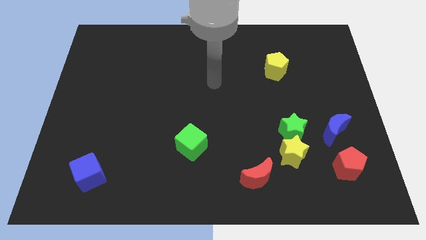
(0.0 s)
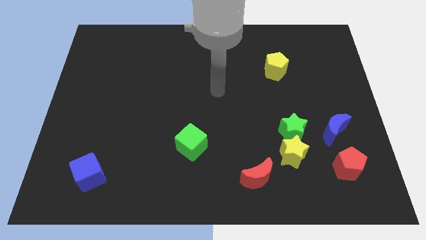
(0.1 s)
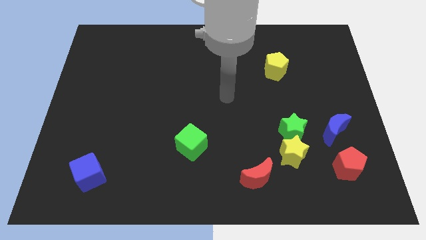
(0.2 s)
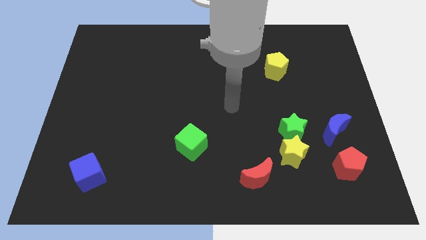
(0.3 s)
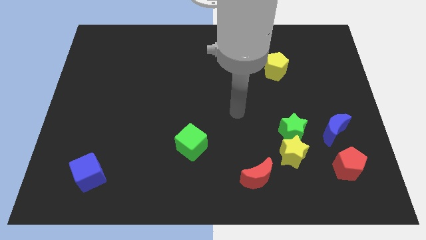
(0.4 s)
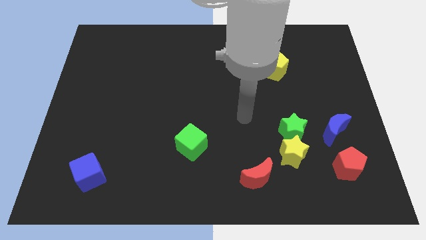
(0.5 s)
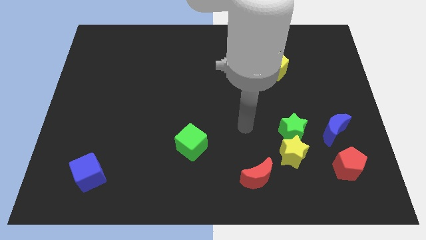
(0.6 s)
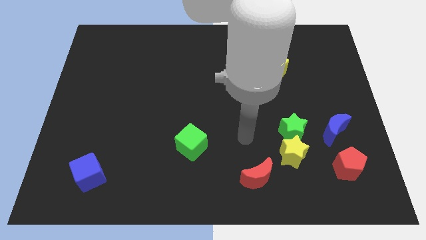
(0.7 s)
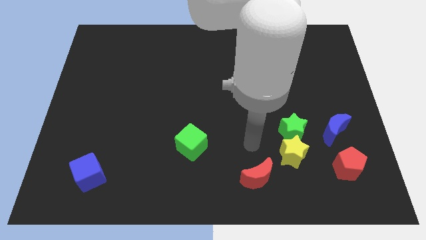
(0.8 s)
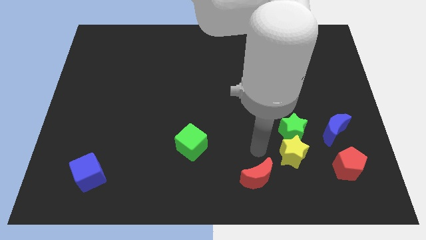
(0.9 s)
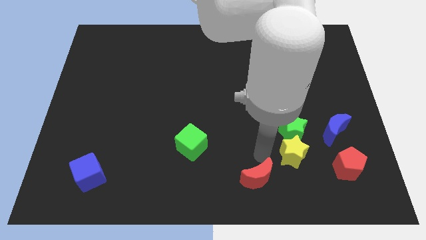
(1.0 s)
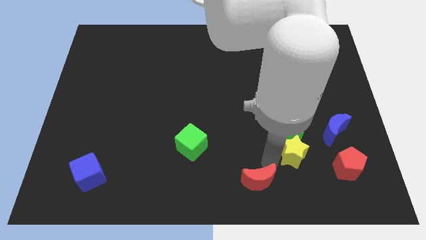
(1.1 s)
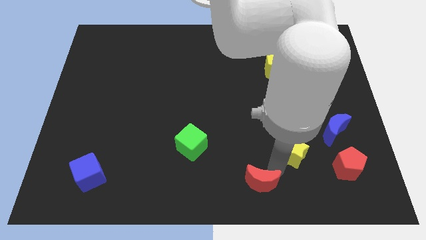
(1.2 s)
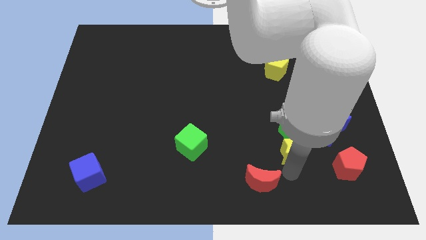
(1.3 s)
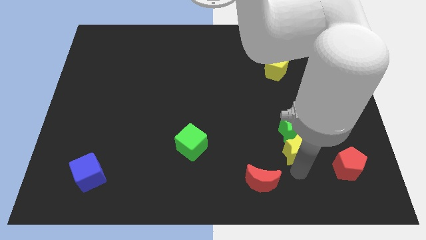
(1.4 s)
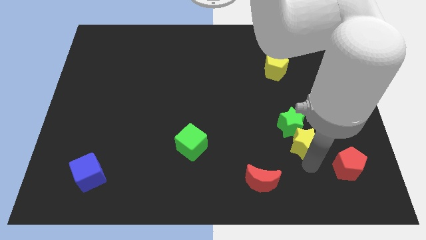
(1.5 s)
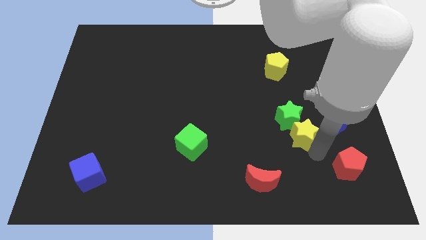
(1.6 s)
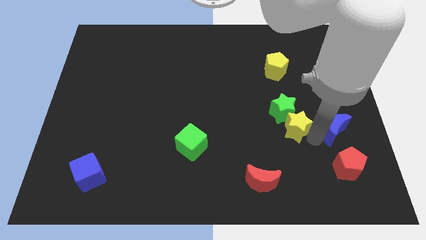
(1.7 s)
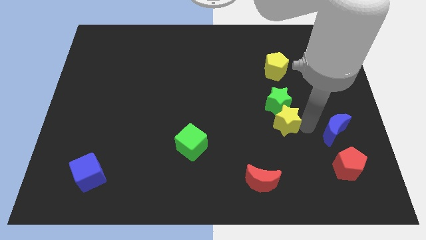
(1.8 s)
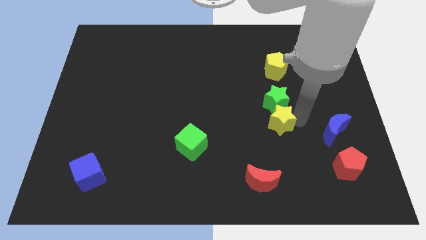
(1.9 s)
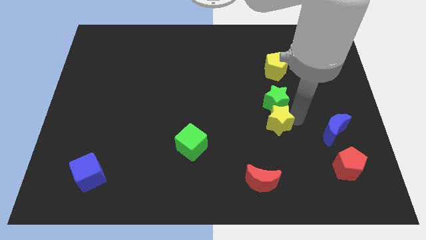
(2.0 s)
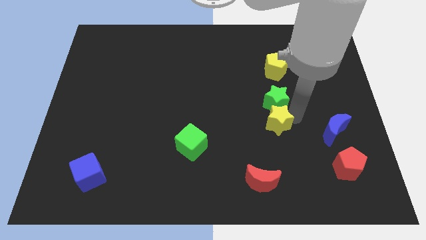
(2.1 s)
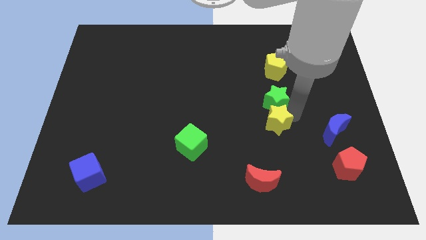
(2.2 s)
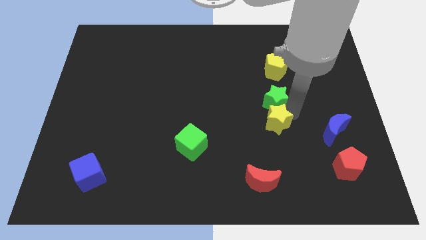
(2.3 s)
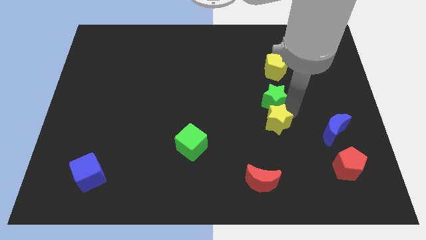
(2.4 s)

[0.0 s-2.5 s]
pull the green star apart from the yellow star and blue moon

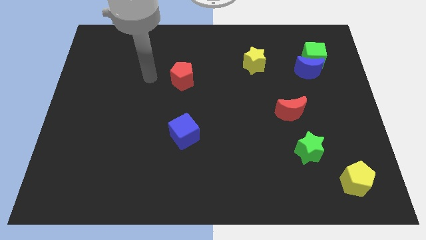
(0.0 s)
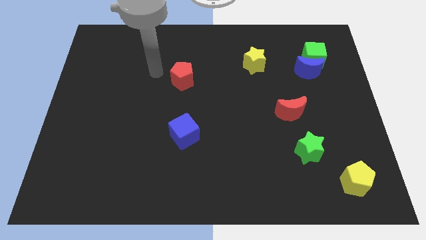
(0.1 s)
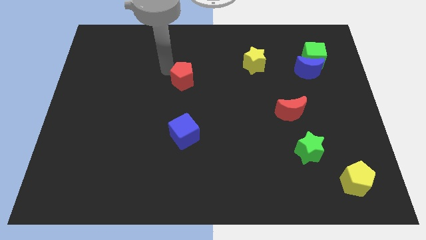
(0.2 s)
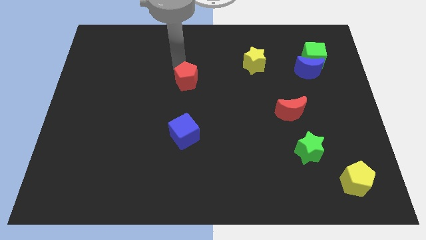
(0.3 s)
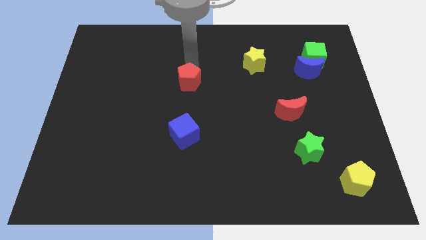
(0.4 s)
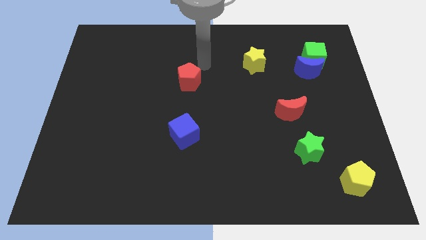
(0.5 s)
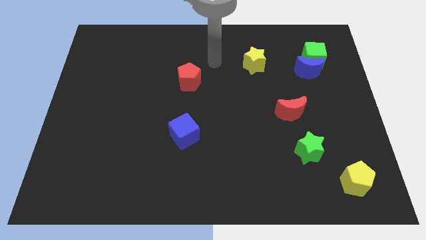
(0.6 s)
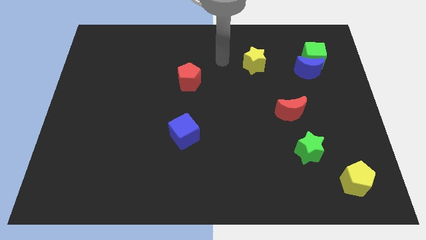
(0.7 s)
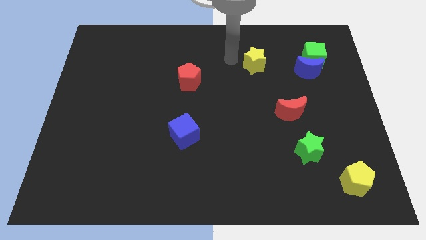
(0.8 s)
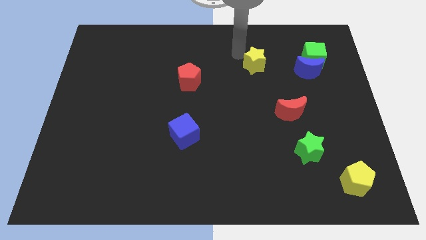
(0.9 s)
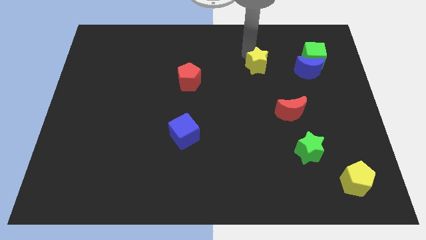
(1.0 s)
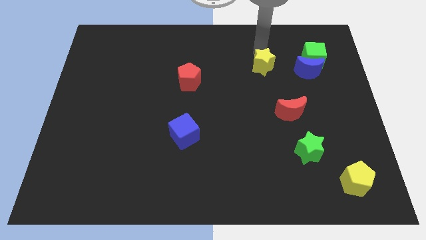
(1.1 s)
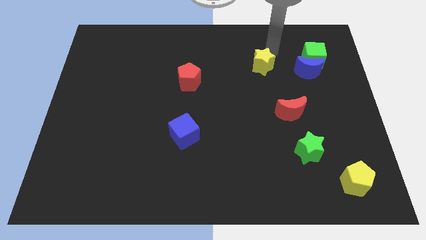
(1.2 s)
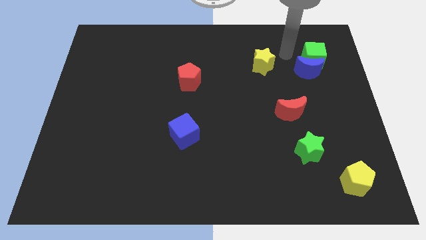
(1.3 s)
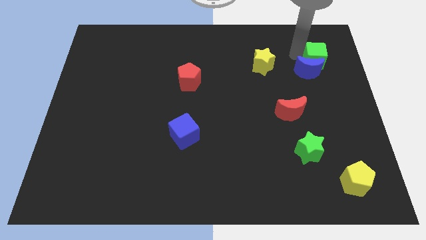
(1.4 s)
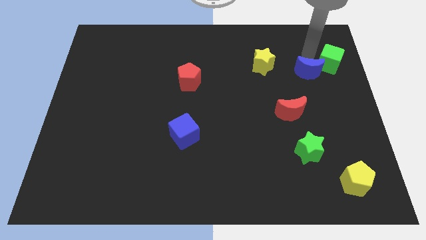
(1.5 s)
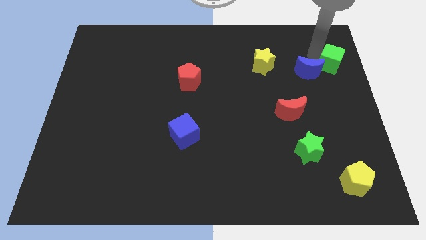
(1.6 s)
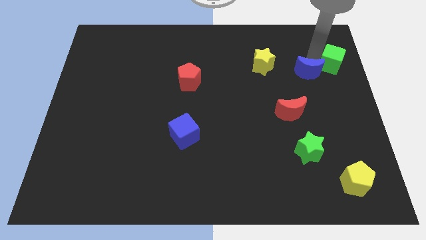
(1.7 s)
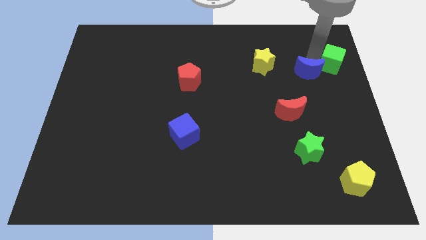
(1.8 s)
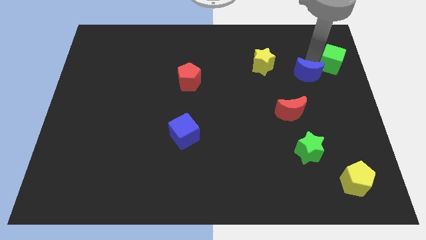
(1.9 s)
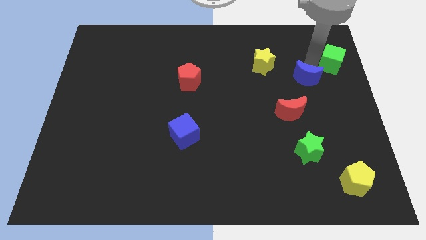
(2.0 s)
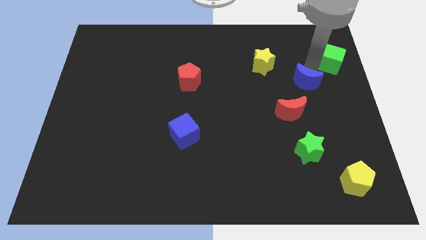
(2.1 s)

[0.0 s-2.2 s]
separate the blue moon from the green cube

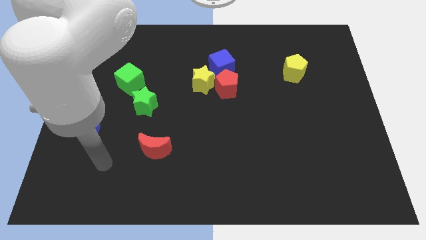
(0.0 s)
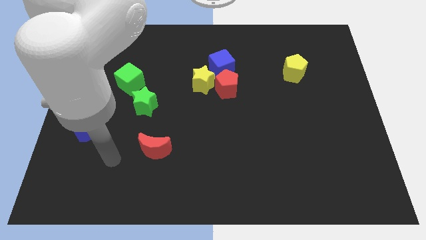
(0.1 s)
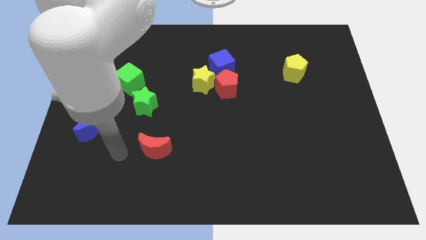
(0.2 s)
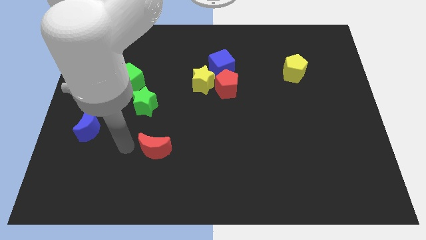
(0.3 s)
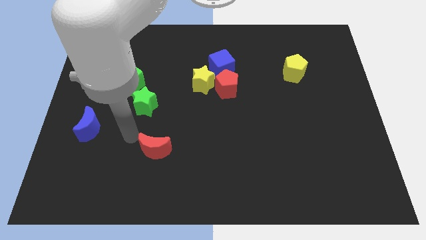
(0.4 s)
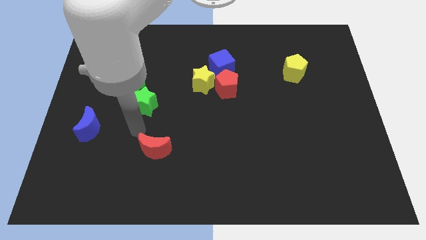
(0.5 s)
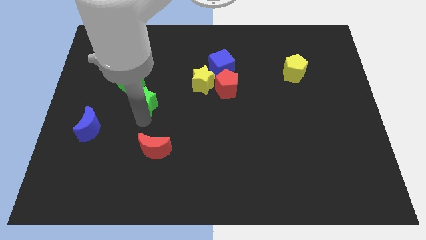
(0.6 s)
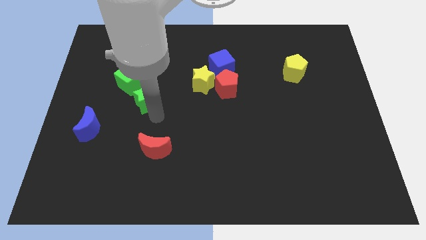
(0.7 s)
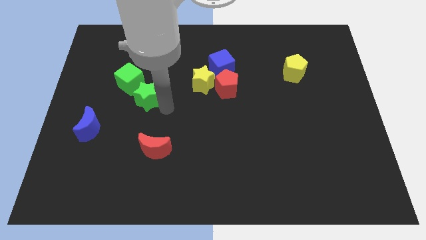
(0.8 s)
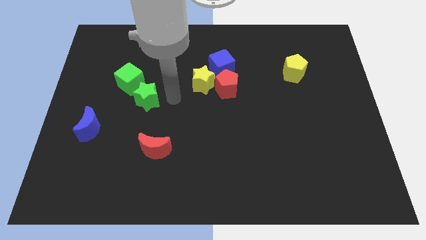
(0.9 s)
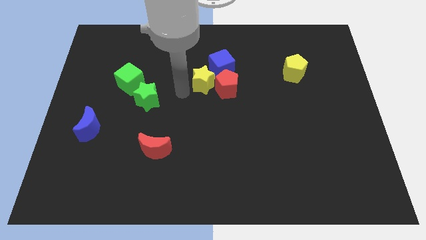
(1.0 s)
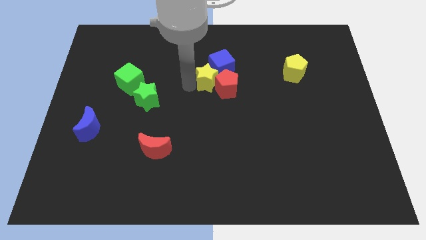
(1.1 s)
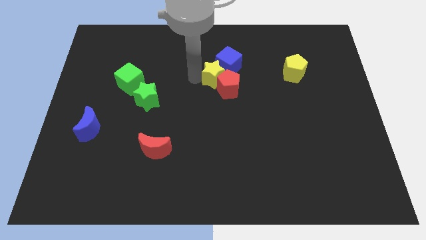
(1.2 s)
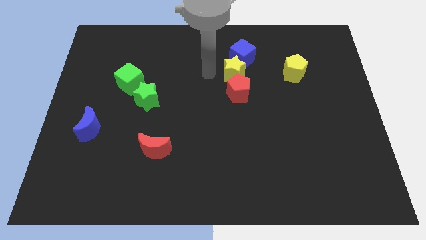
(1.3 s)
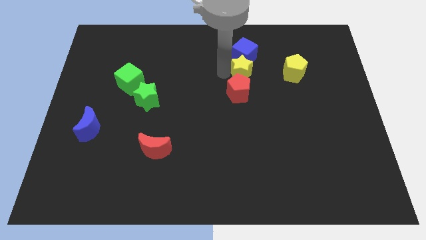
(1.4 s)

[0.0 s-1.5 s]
move the red pentagon away from the yellow star and blue cube

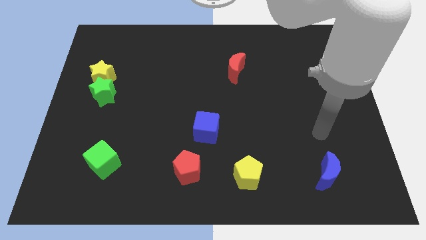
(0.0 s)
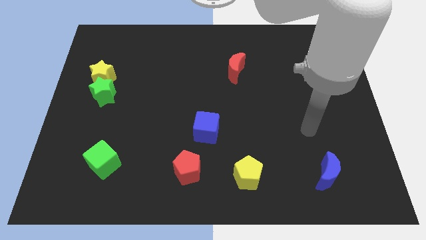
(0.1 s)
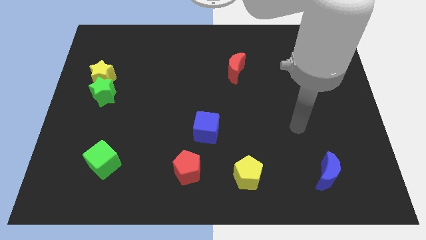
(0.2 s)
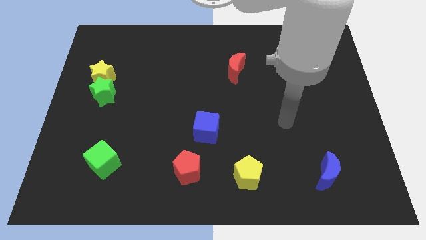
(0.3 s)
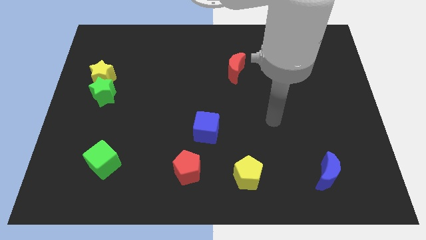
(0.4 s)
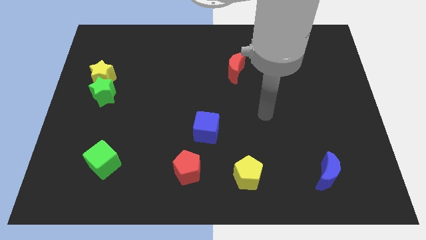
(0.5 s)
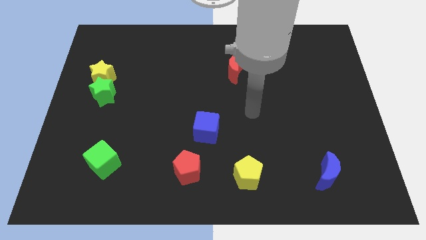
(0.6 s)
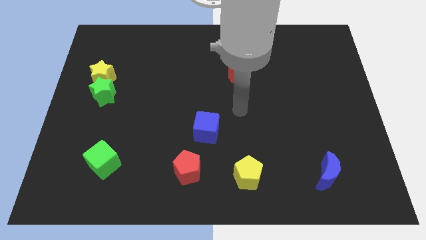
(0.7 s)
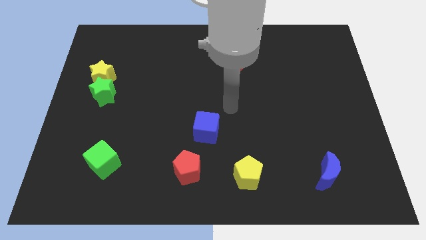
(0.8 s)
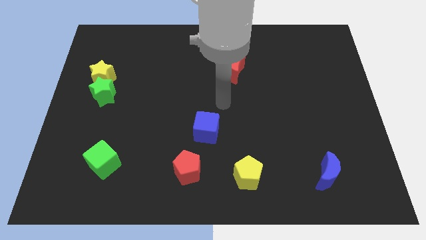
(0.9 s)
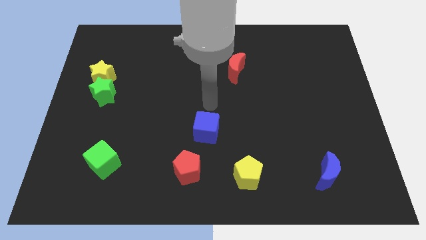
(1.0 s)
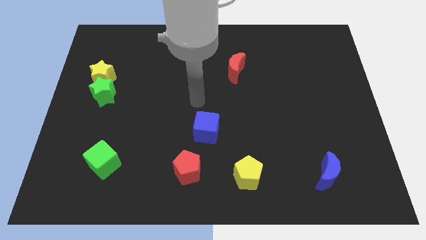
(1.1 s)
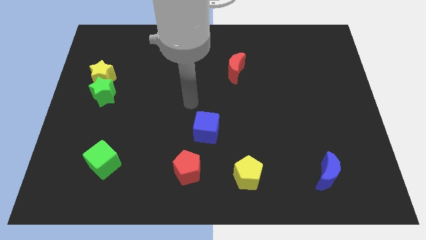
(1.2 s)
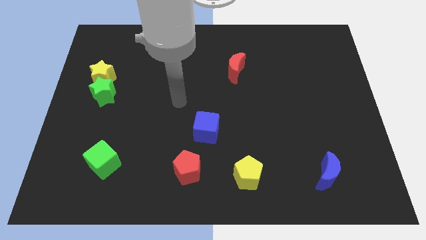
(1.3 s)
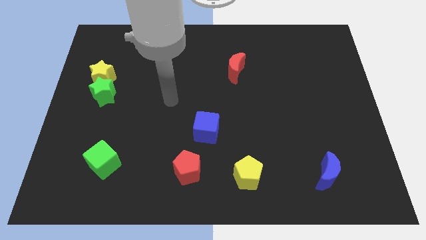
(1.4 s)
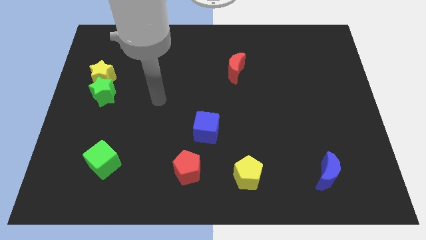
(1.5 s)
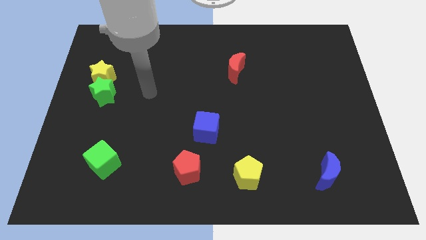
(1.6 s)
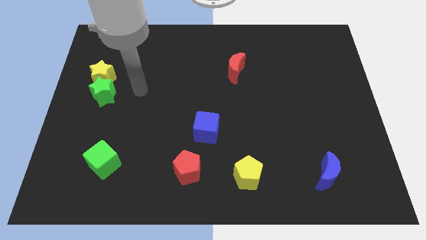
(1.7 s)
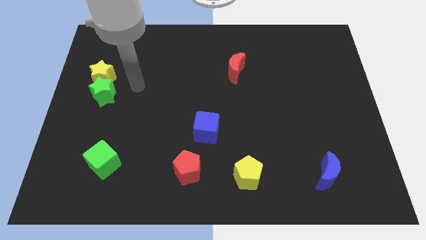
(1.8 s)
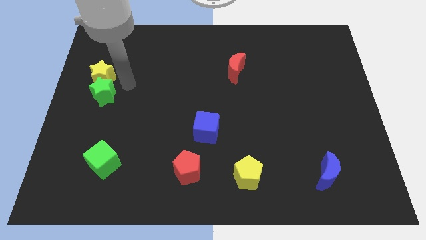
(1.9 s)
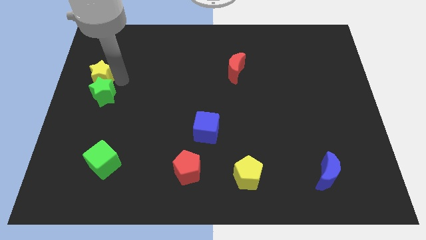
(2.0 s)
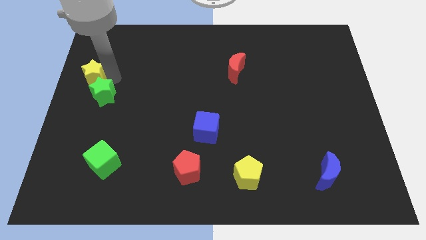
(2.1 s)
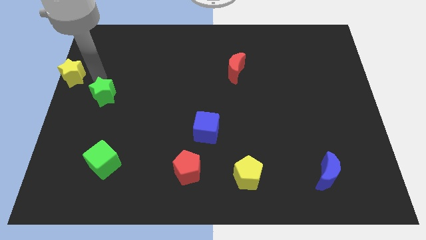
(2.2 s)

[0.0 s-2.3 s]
move the green star away from the yellow star

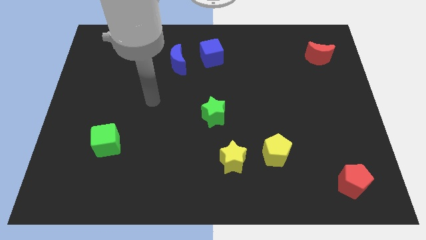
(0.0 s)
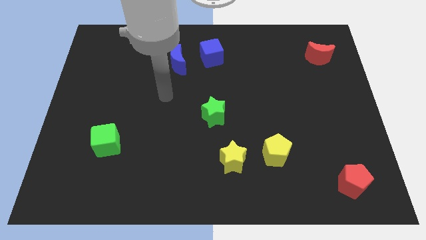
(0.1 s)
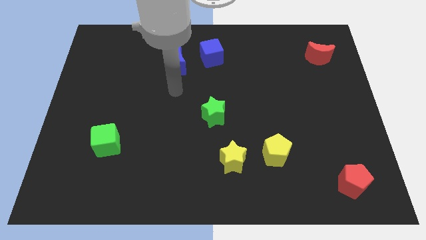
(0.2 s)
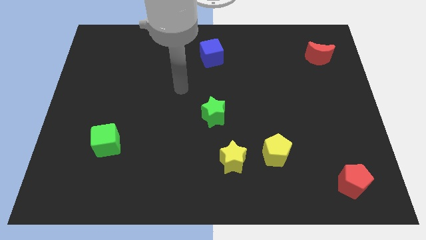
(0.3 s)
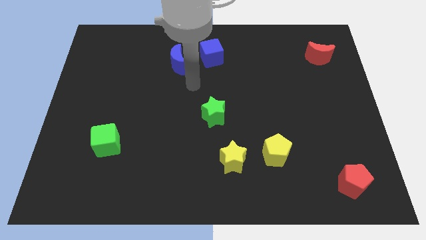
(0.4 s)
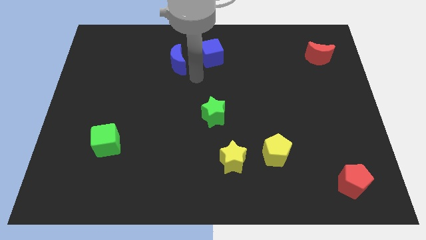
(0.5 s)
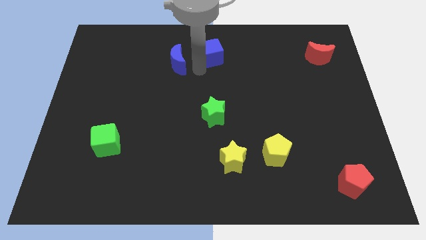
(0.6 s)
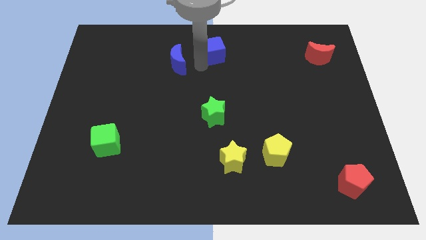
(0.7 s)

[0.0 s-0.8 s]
move the blue moon away from the blue cube
